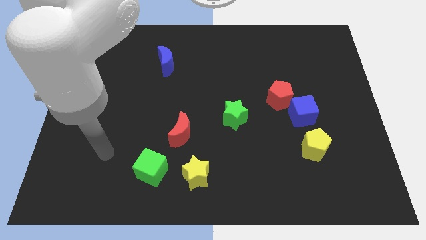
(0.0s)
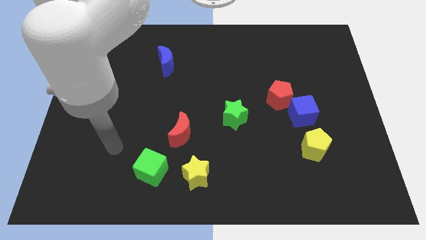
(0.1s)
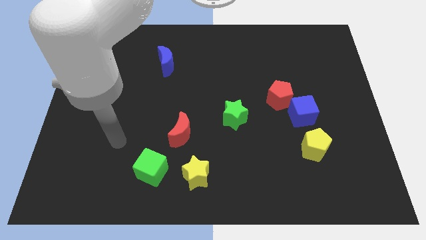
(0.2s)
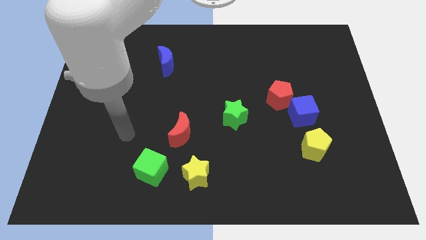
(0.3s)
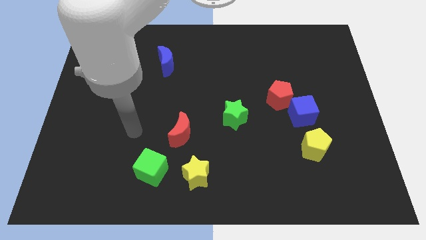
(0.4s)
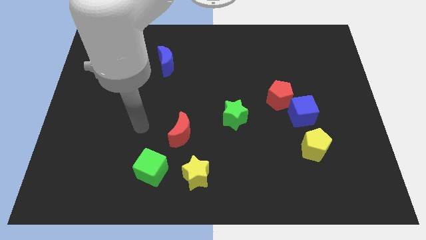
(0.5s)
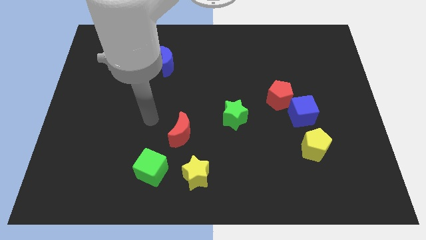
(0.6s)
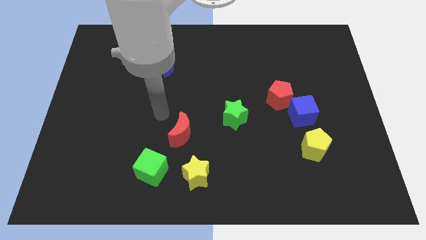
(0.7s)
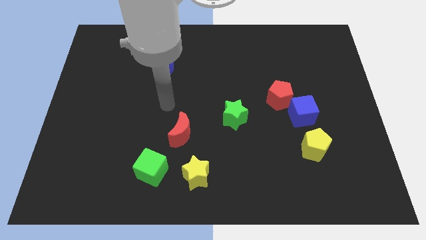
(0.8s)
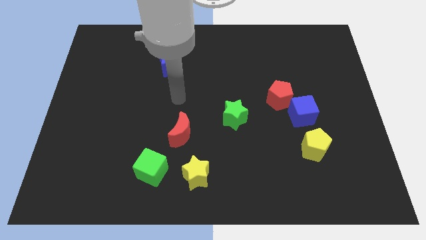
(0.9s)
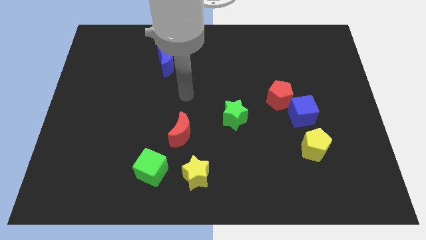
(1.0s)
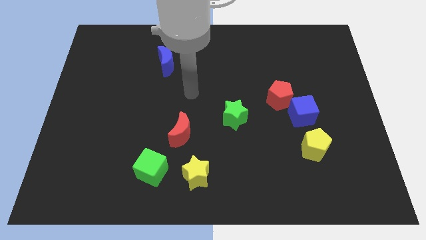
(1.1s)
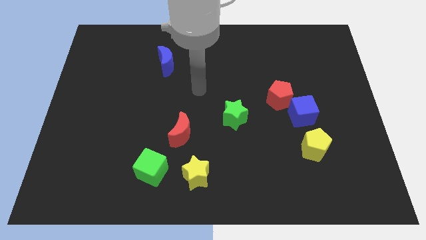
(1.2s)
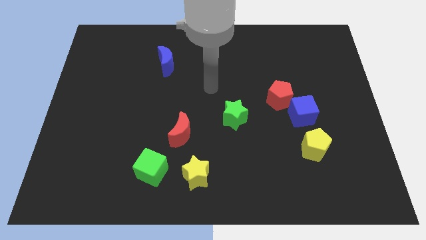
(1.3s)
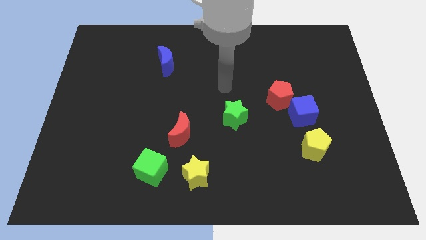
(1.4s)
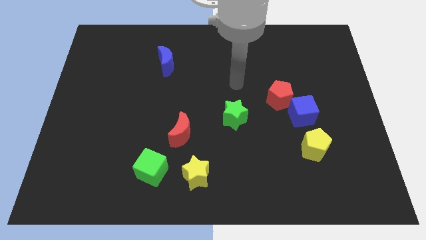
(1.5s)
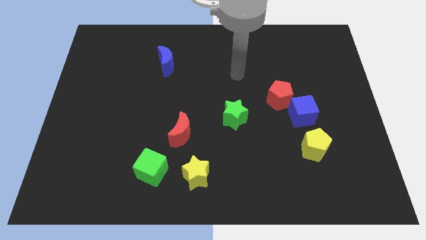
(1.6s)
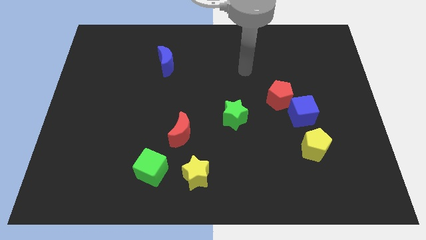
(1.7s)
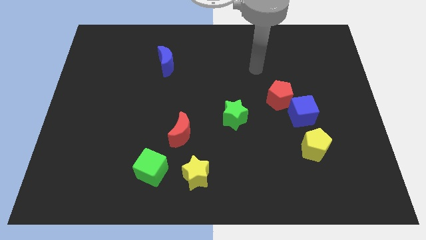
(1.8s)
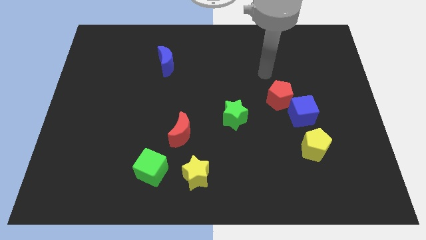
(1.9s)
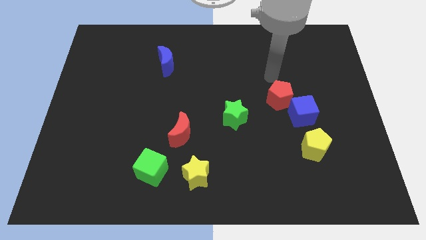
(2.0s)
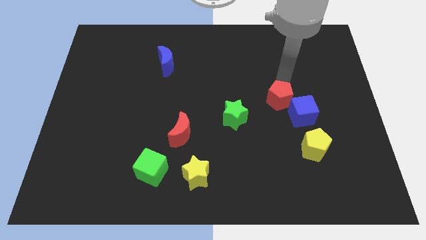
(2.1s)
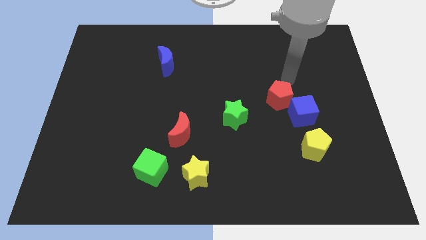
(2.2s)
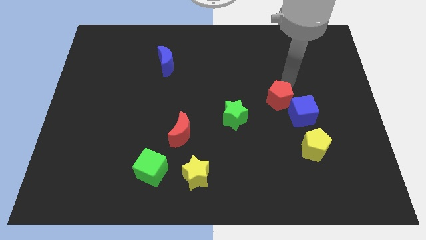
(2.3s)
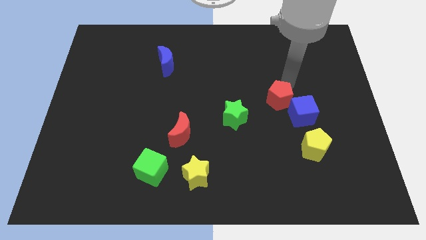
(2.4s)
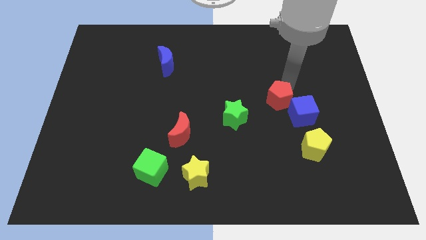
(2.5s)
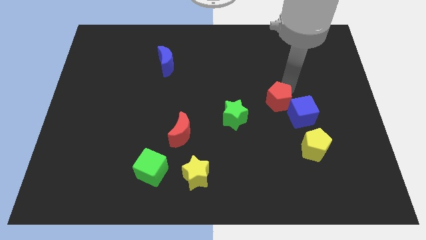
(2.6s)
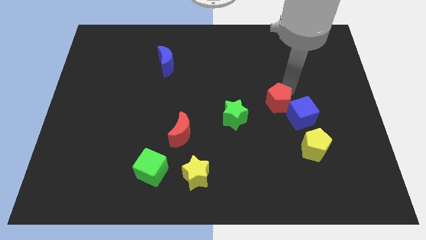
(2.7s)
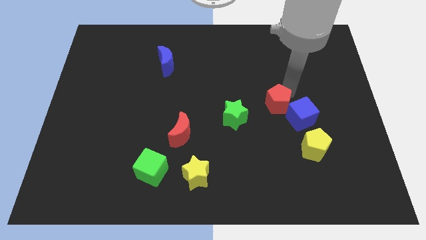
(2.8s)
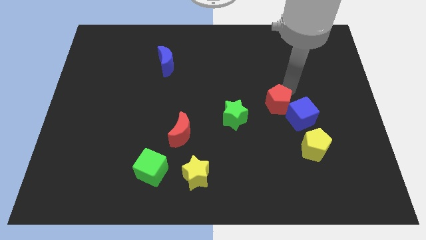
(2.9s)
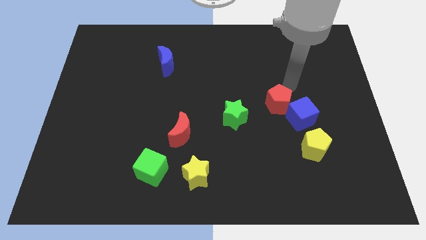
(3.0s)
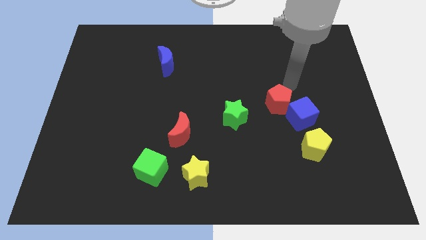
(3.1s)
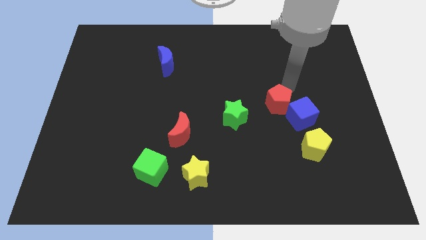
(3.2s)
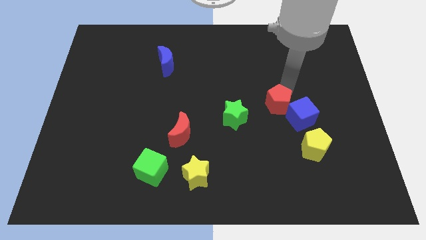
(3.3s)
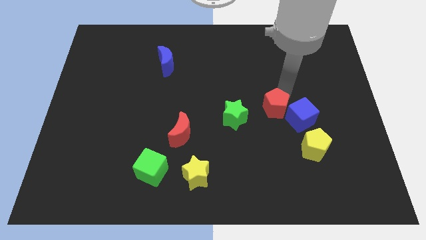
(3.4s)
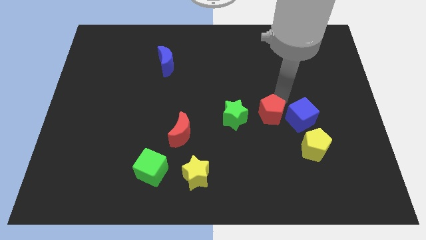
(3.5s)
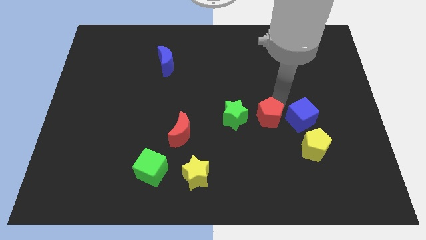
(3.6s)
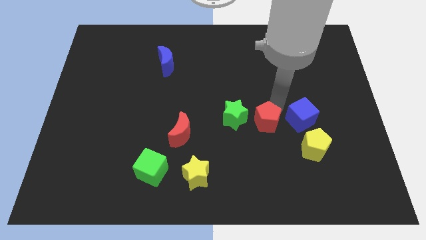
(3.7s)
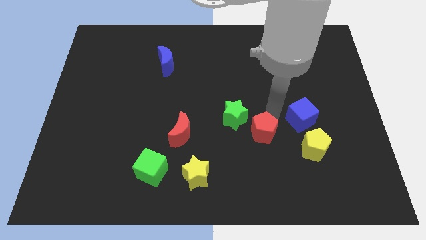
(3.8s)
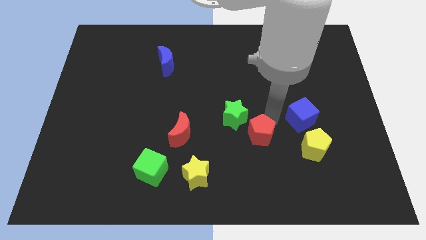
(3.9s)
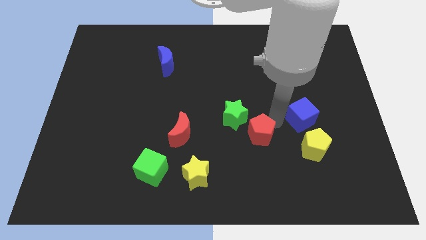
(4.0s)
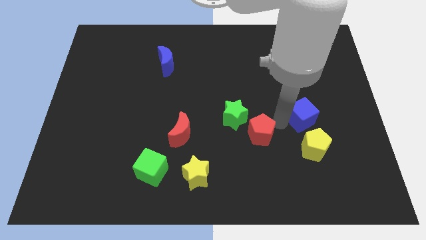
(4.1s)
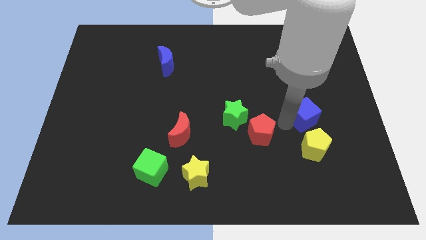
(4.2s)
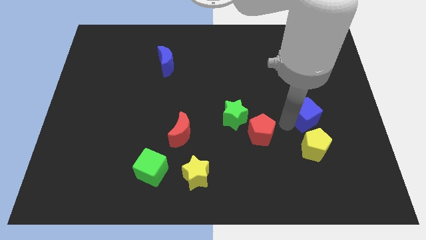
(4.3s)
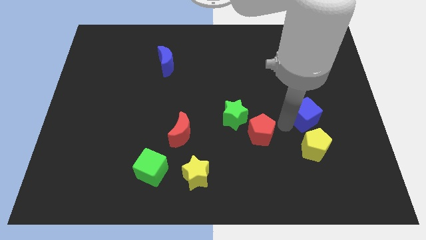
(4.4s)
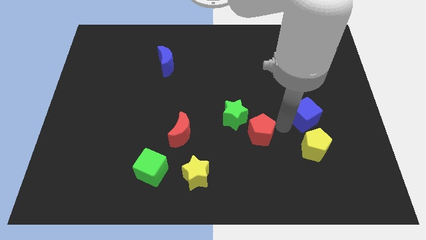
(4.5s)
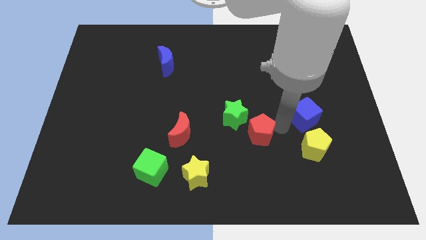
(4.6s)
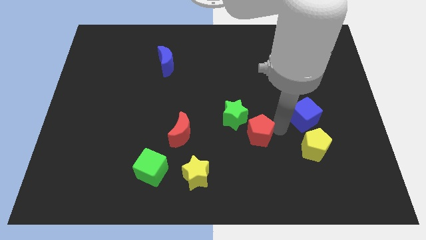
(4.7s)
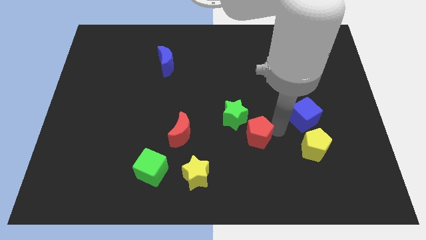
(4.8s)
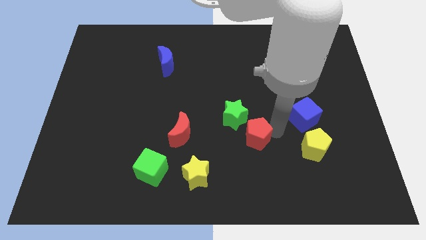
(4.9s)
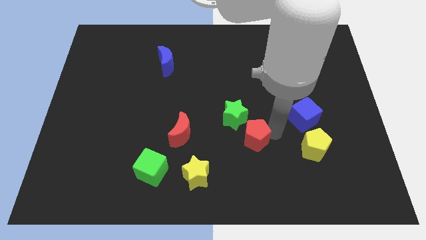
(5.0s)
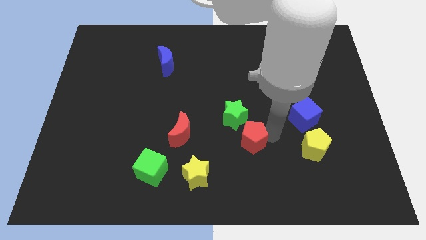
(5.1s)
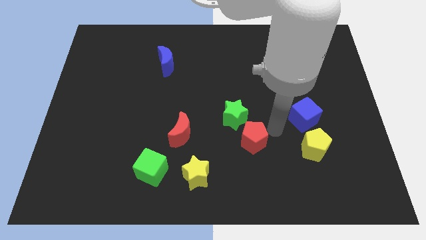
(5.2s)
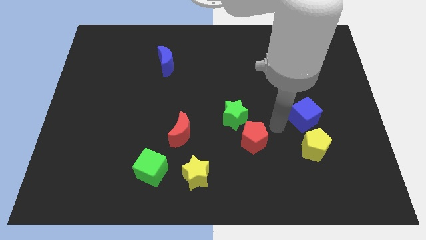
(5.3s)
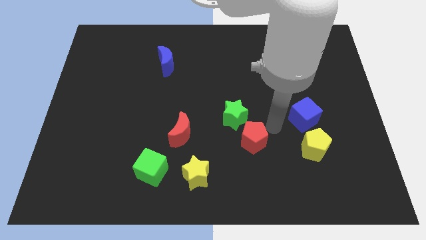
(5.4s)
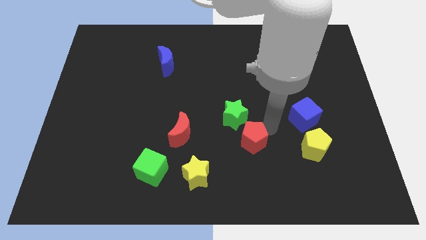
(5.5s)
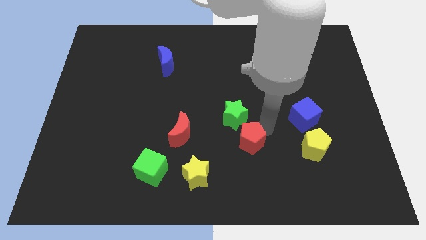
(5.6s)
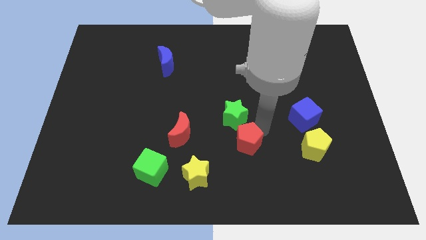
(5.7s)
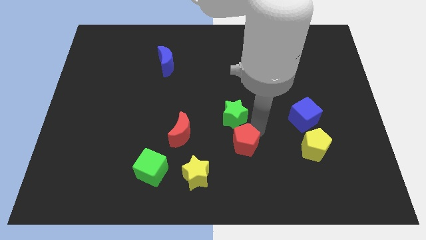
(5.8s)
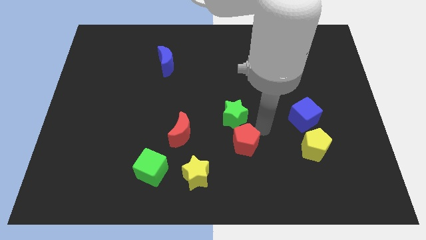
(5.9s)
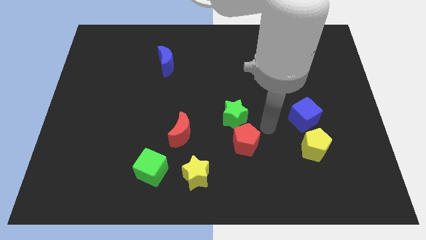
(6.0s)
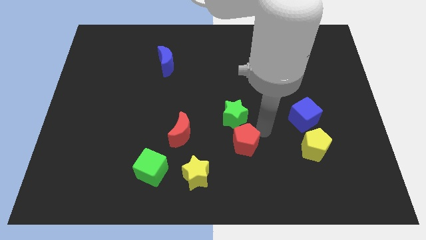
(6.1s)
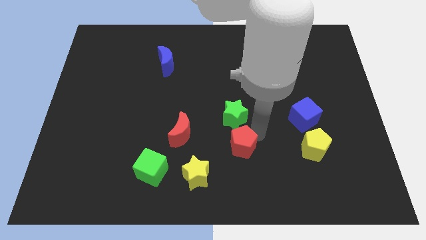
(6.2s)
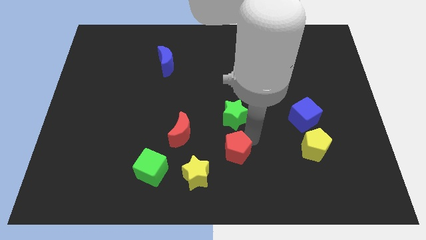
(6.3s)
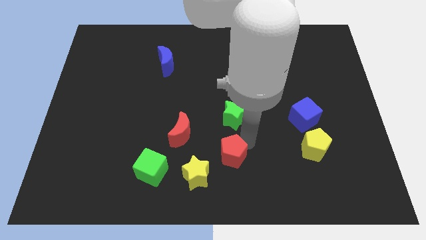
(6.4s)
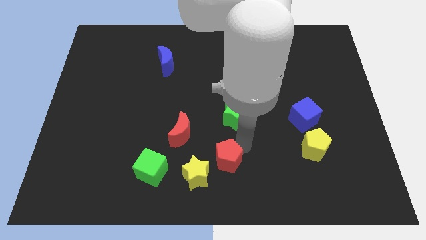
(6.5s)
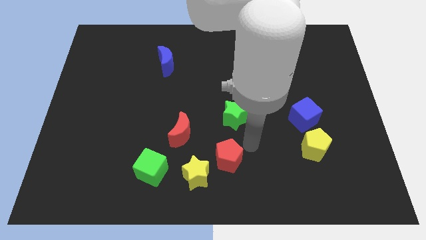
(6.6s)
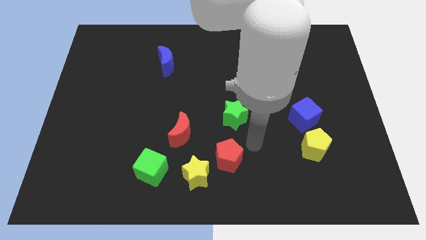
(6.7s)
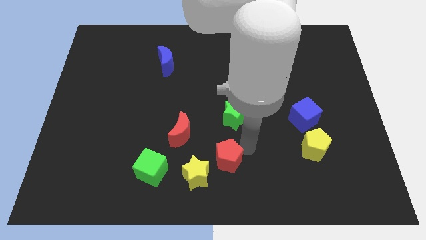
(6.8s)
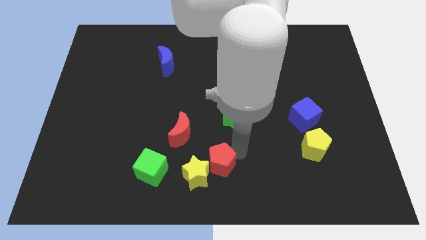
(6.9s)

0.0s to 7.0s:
push the red pentagon towards the yellow star
